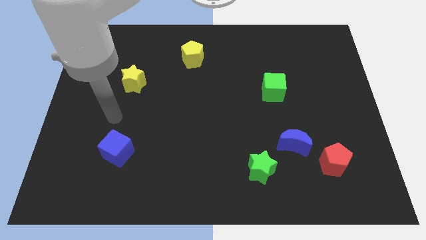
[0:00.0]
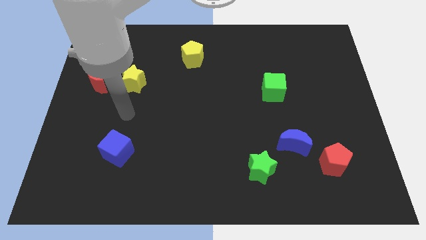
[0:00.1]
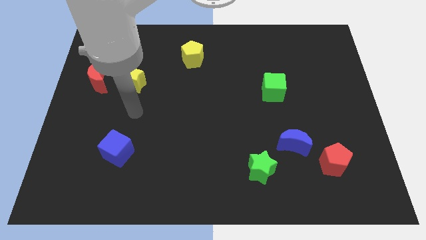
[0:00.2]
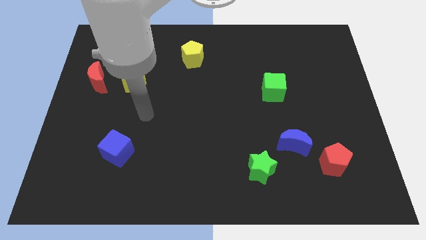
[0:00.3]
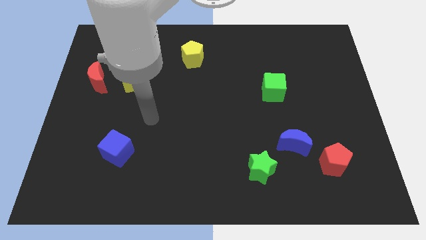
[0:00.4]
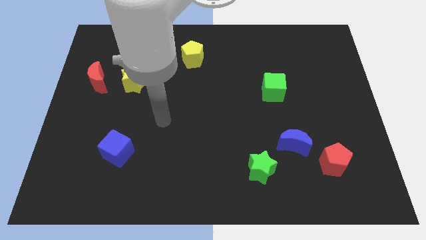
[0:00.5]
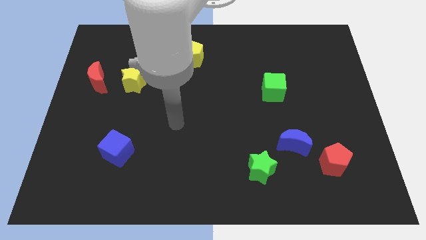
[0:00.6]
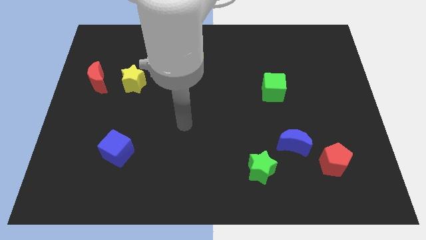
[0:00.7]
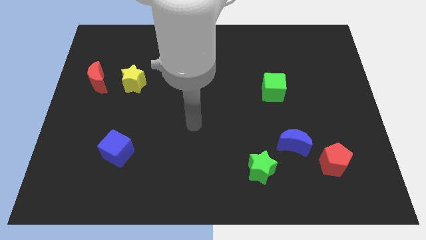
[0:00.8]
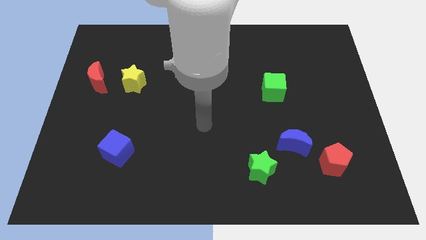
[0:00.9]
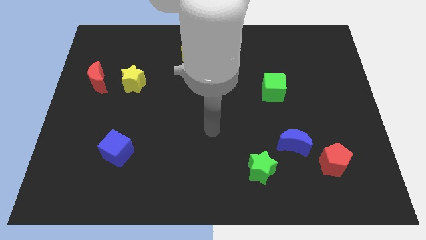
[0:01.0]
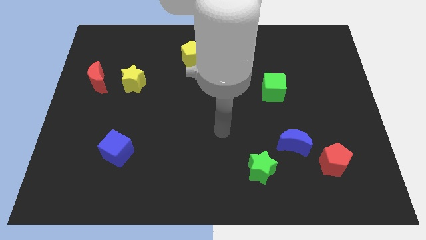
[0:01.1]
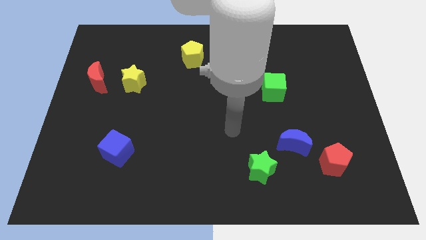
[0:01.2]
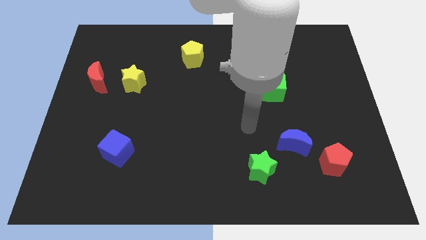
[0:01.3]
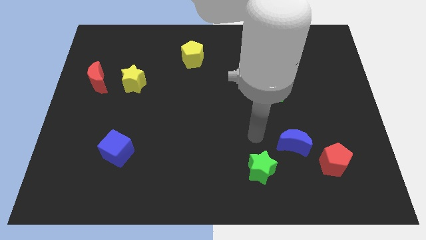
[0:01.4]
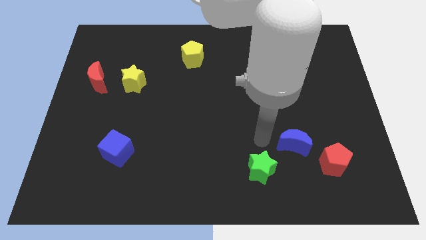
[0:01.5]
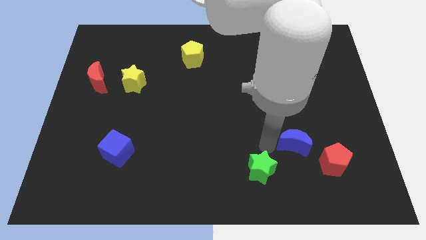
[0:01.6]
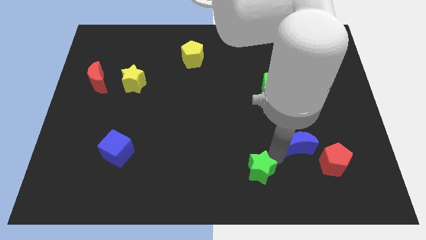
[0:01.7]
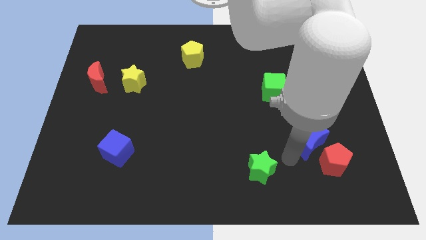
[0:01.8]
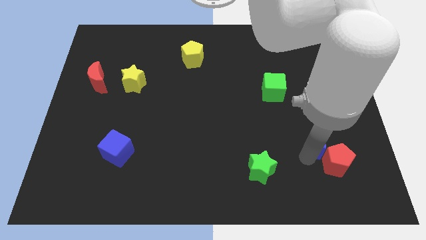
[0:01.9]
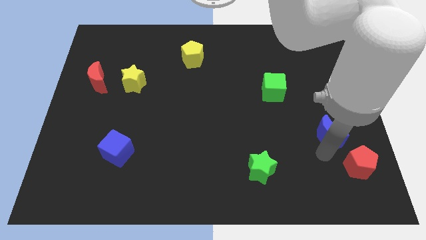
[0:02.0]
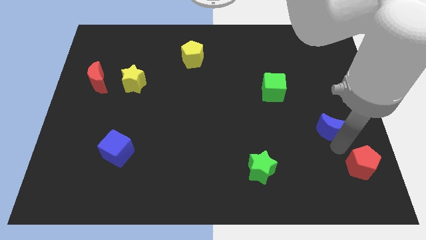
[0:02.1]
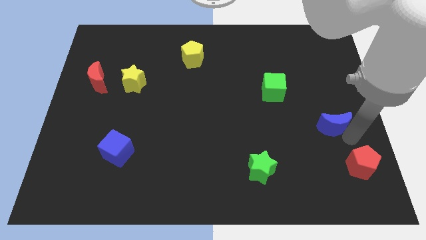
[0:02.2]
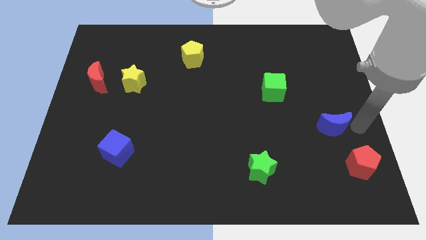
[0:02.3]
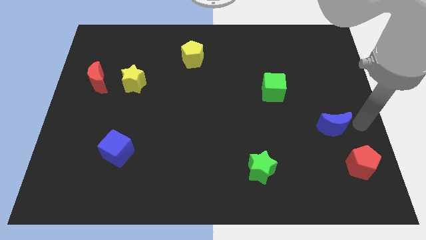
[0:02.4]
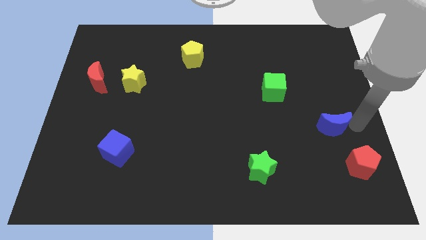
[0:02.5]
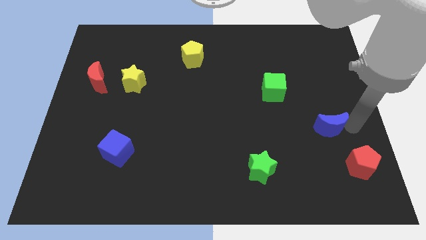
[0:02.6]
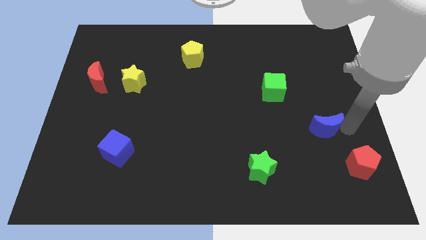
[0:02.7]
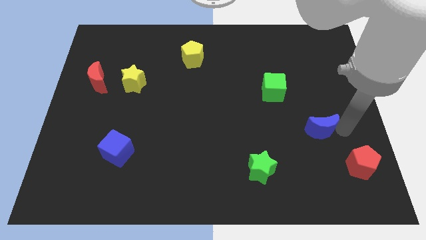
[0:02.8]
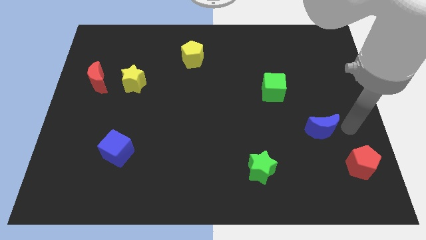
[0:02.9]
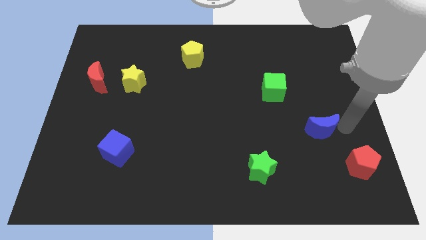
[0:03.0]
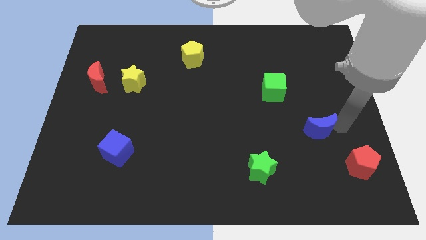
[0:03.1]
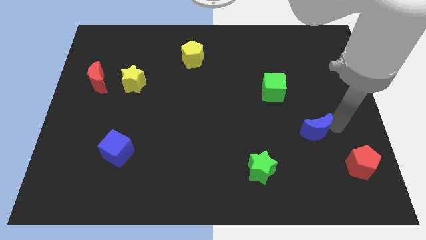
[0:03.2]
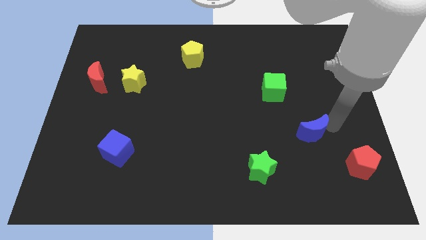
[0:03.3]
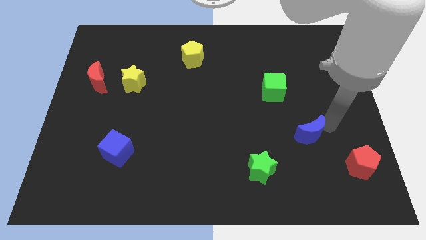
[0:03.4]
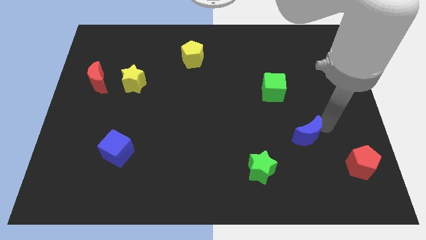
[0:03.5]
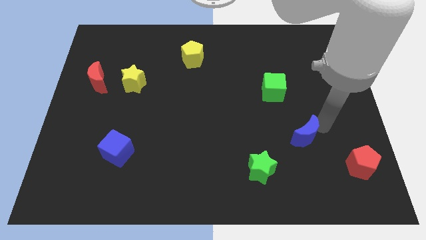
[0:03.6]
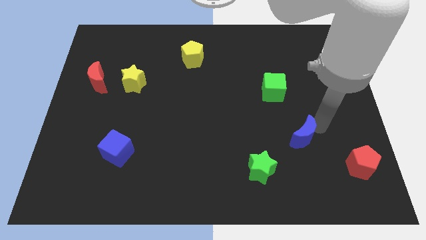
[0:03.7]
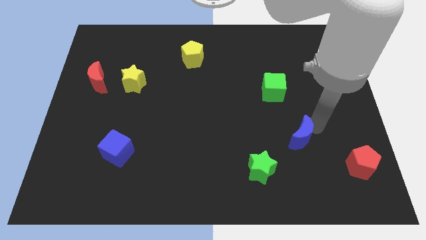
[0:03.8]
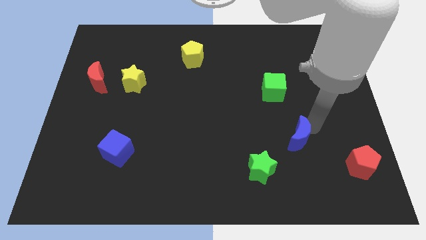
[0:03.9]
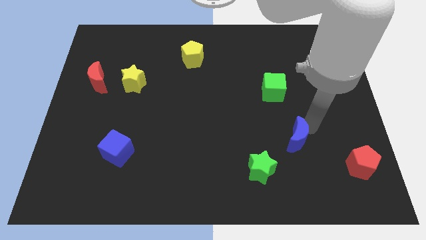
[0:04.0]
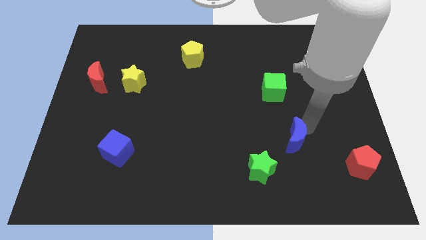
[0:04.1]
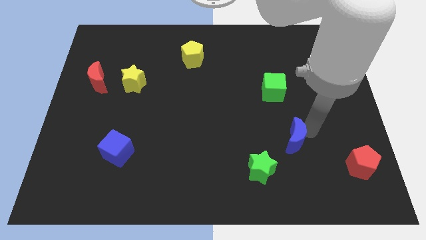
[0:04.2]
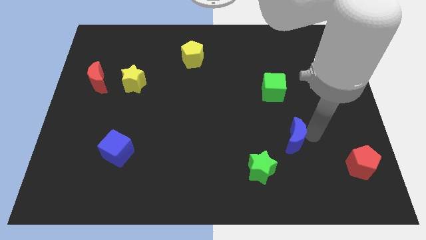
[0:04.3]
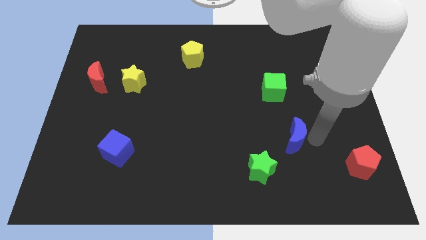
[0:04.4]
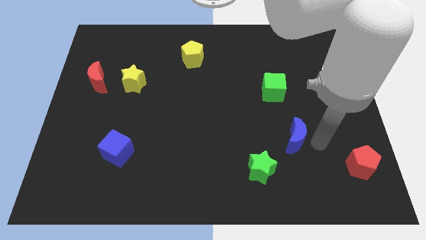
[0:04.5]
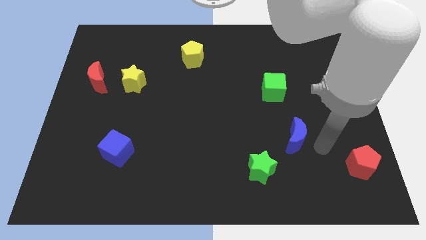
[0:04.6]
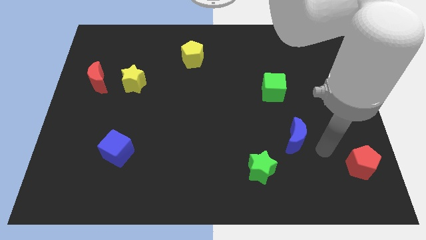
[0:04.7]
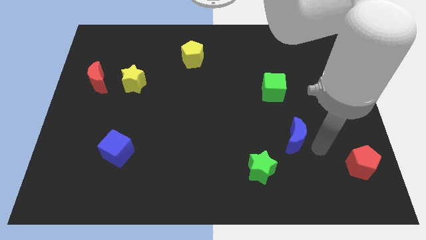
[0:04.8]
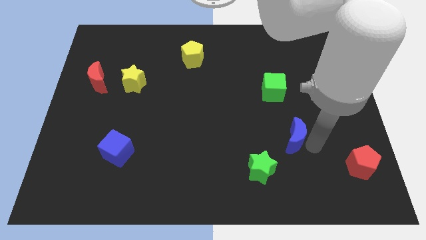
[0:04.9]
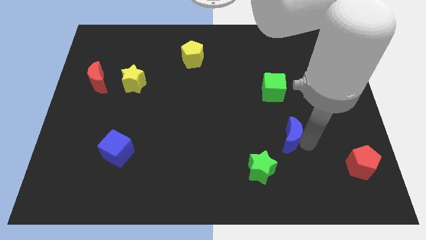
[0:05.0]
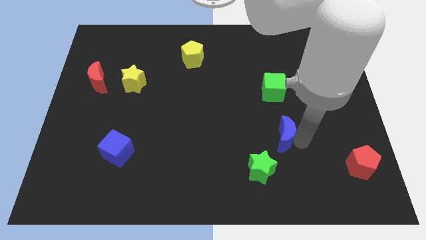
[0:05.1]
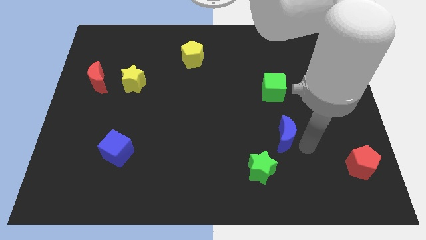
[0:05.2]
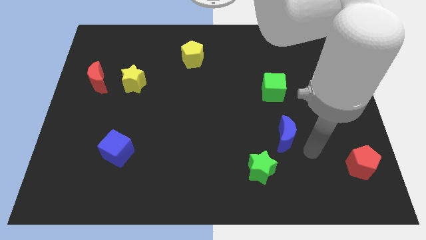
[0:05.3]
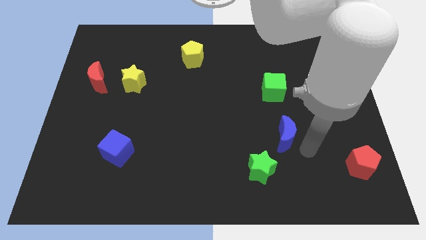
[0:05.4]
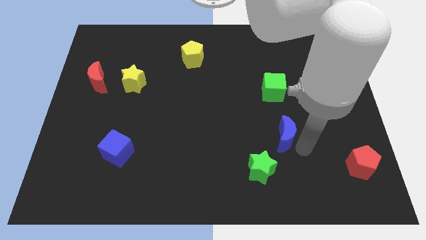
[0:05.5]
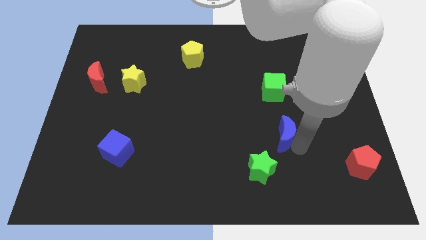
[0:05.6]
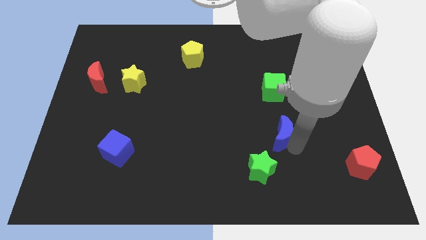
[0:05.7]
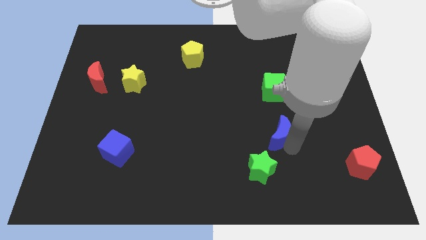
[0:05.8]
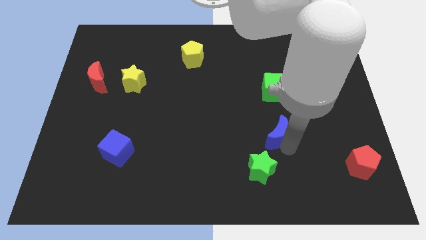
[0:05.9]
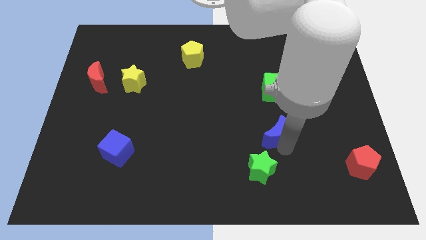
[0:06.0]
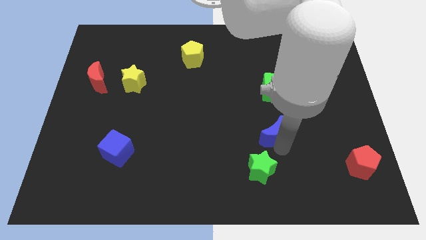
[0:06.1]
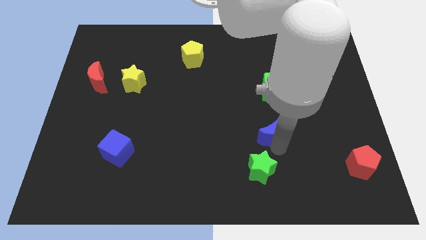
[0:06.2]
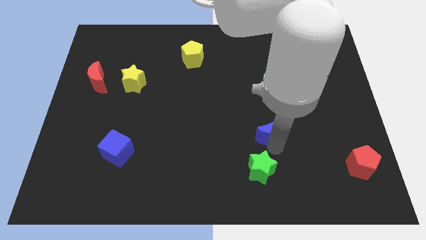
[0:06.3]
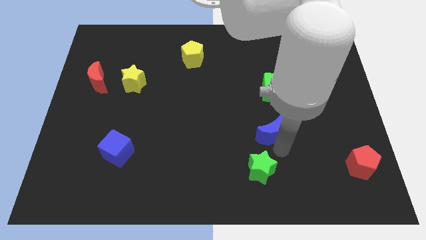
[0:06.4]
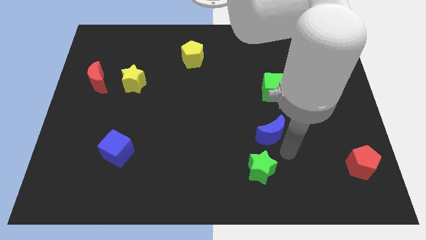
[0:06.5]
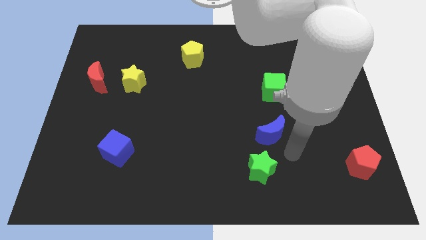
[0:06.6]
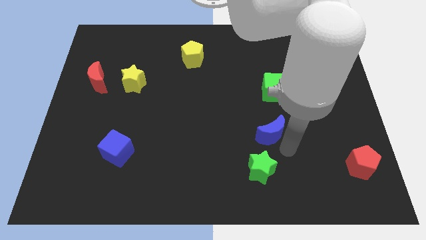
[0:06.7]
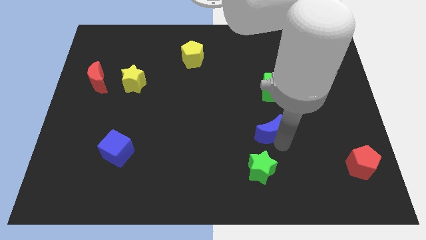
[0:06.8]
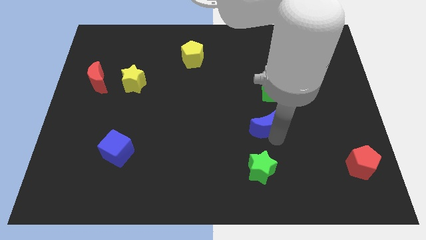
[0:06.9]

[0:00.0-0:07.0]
slightly move the blue moon up and then to the left

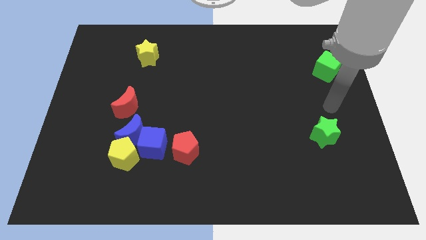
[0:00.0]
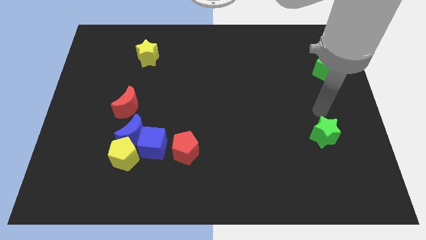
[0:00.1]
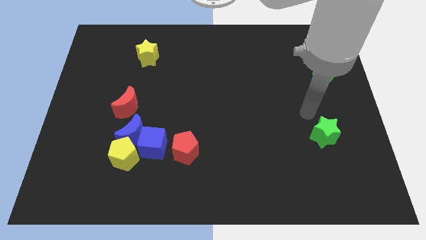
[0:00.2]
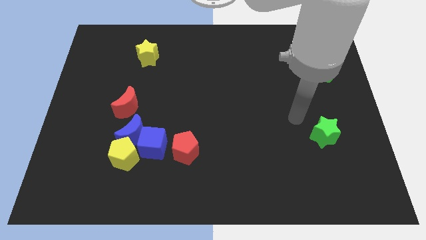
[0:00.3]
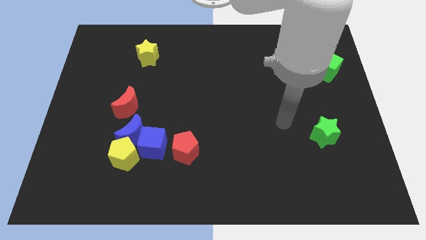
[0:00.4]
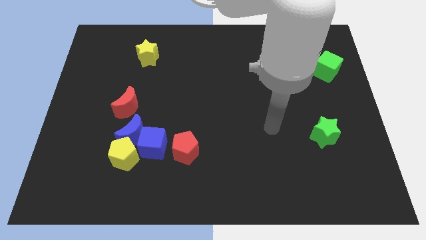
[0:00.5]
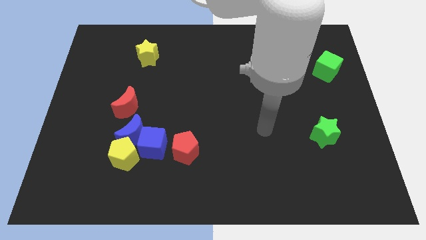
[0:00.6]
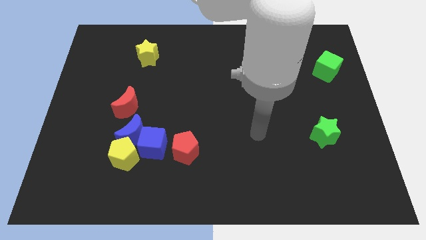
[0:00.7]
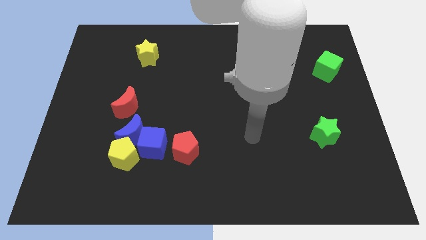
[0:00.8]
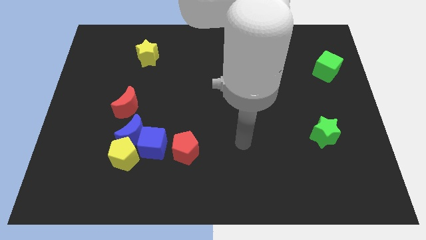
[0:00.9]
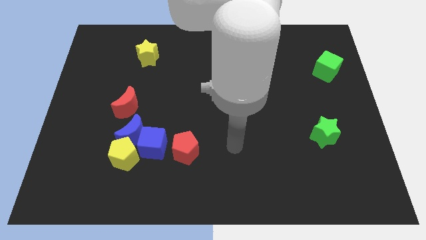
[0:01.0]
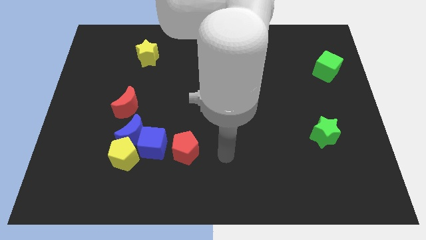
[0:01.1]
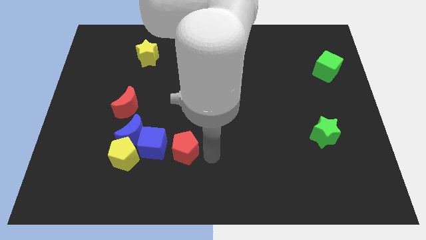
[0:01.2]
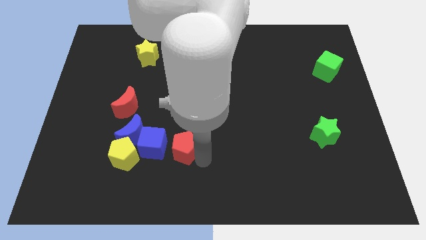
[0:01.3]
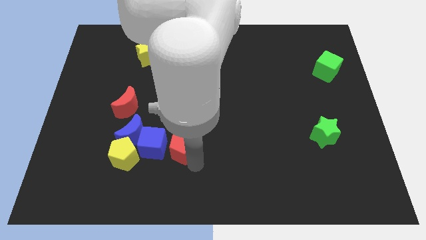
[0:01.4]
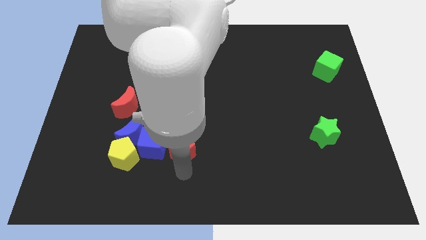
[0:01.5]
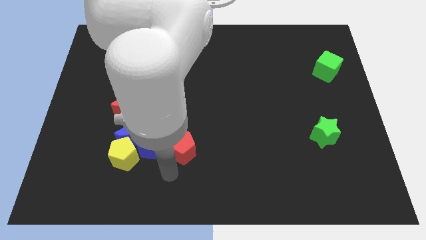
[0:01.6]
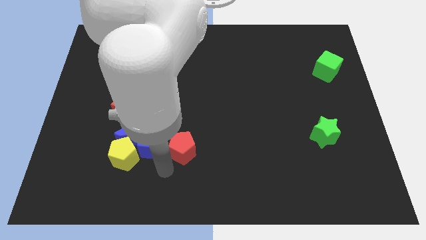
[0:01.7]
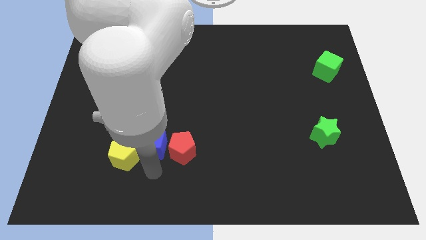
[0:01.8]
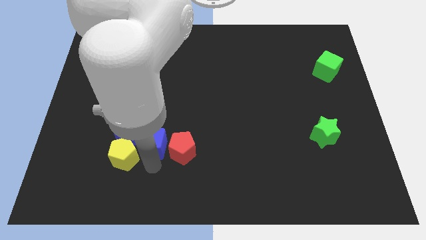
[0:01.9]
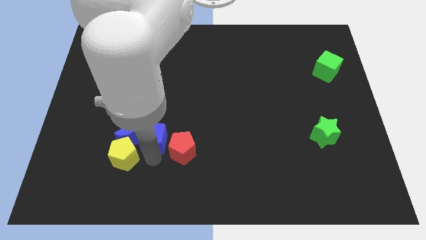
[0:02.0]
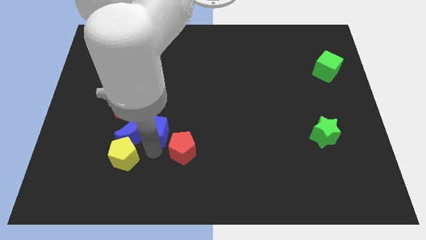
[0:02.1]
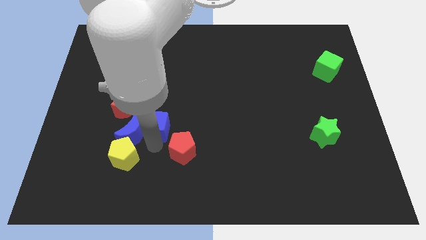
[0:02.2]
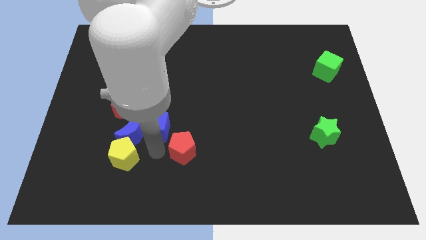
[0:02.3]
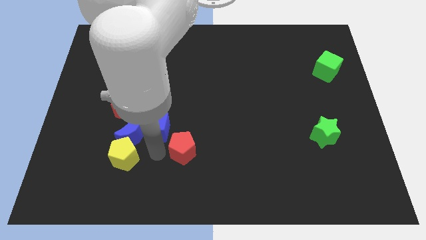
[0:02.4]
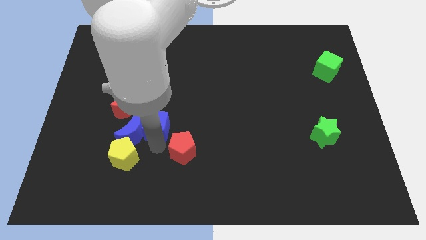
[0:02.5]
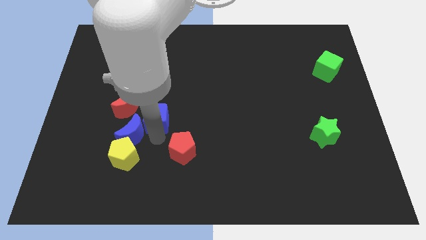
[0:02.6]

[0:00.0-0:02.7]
push the blue cube up a little bit
